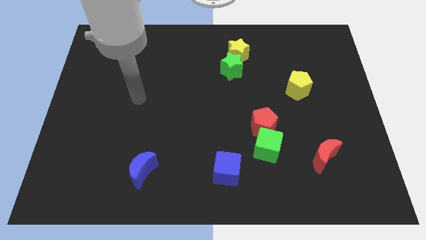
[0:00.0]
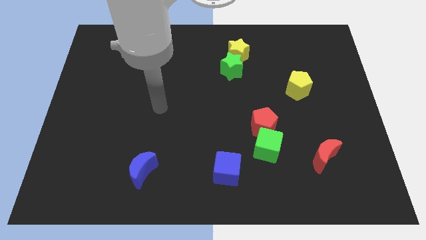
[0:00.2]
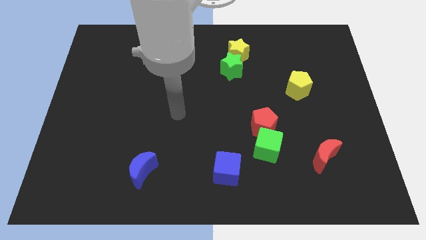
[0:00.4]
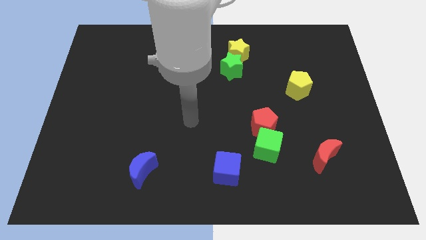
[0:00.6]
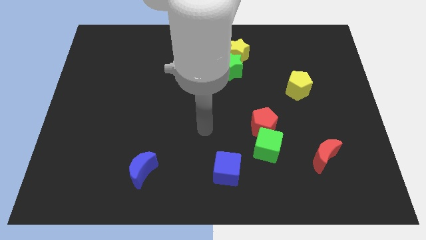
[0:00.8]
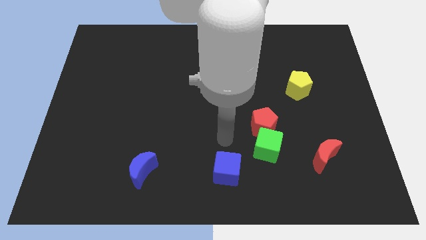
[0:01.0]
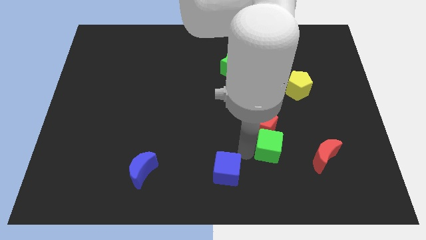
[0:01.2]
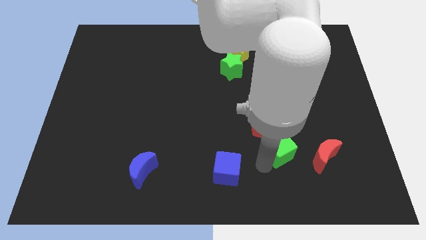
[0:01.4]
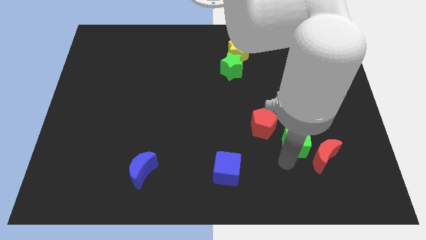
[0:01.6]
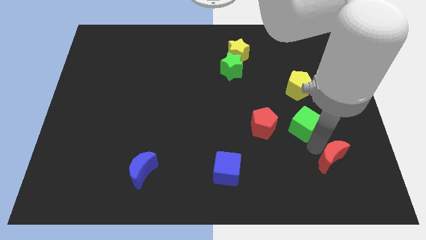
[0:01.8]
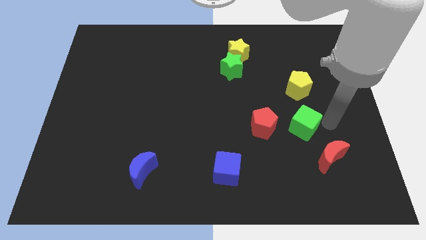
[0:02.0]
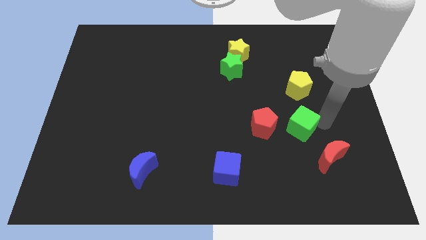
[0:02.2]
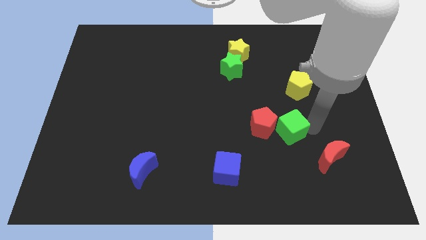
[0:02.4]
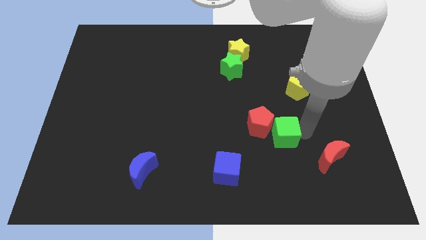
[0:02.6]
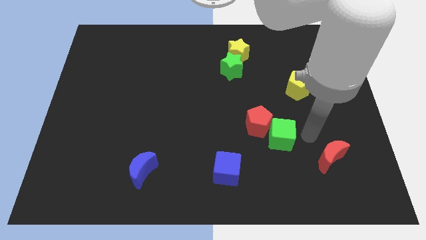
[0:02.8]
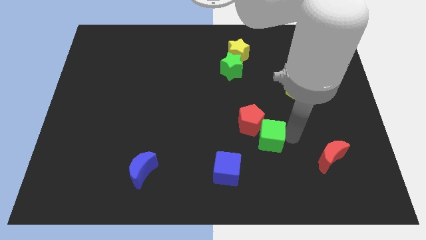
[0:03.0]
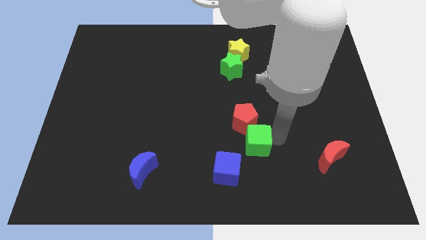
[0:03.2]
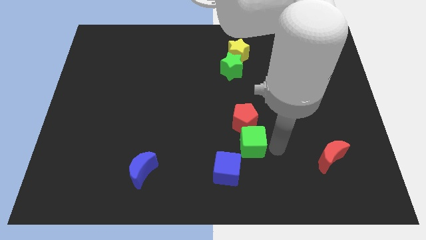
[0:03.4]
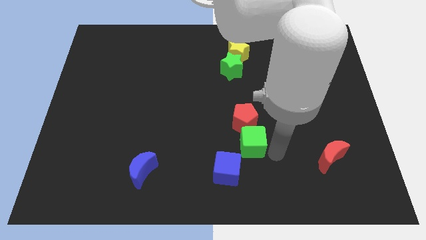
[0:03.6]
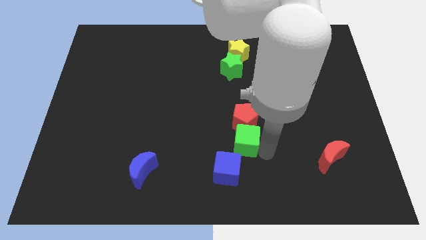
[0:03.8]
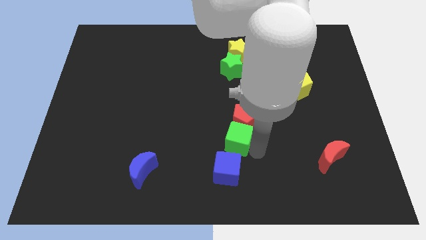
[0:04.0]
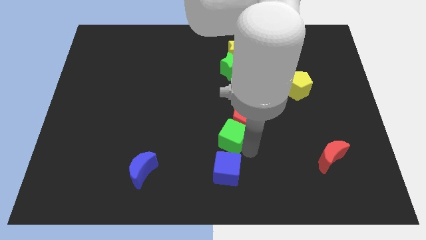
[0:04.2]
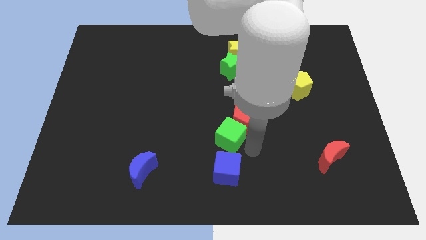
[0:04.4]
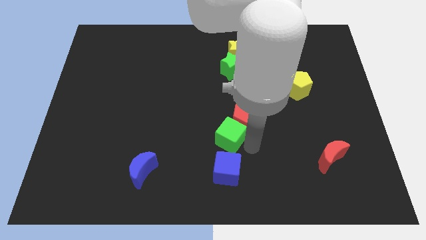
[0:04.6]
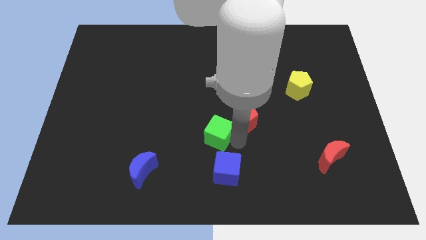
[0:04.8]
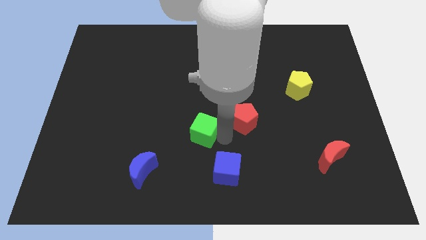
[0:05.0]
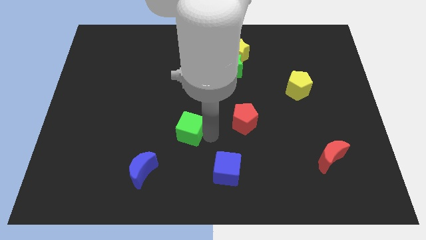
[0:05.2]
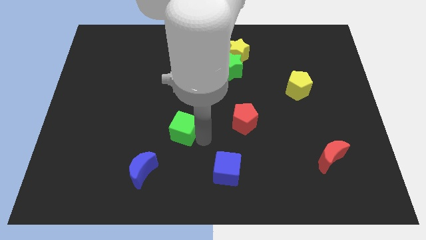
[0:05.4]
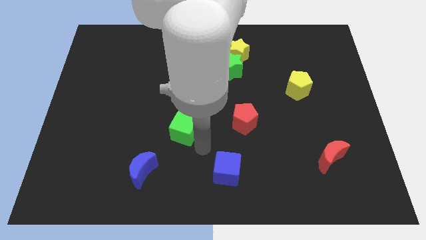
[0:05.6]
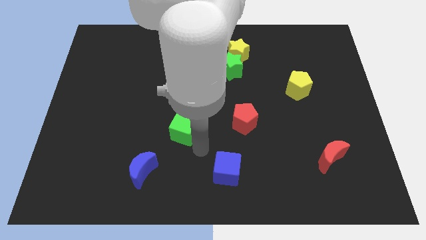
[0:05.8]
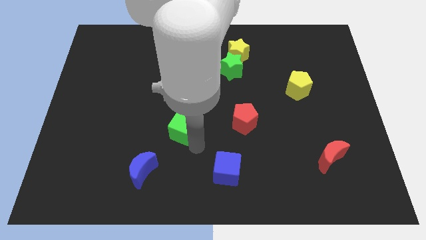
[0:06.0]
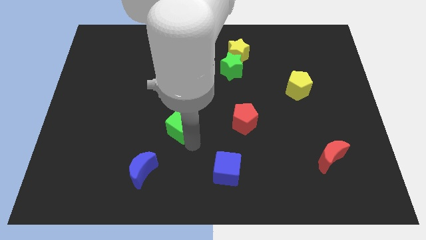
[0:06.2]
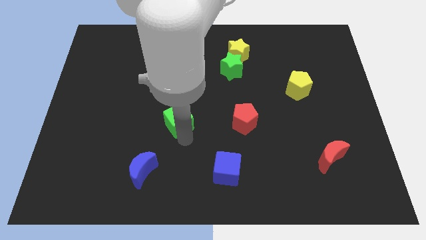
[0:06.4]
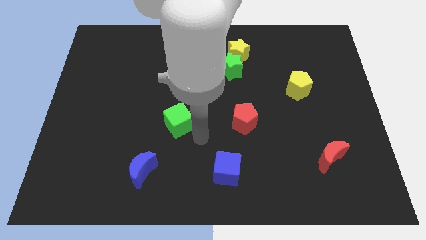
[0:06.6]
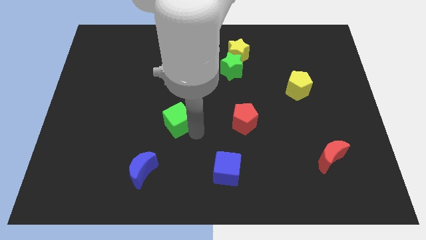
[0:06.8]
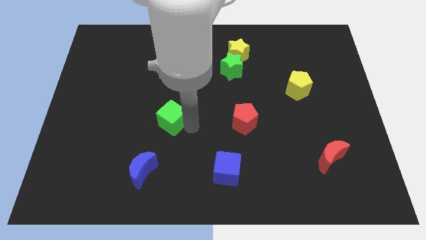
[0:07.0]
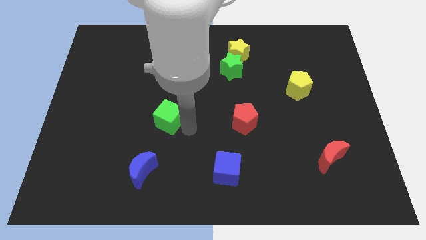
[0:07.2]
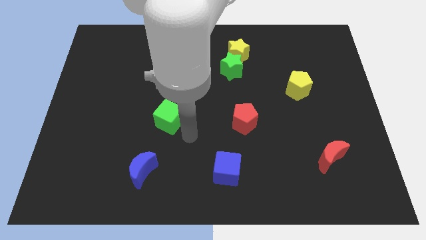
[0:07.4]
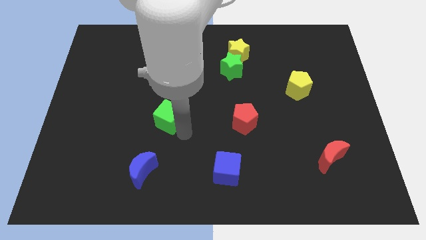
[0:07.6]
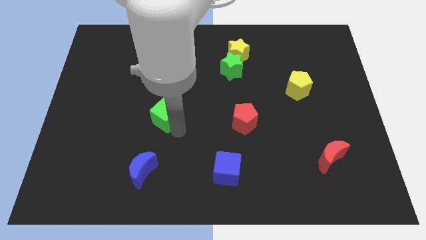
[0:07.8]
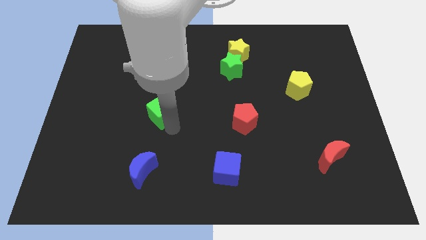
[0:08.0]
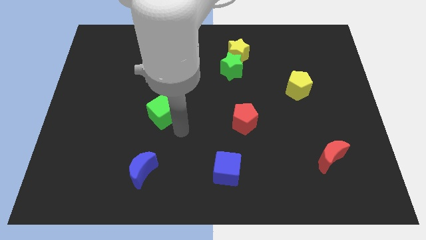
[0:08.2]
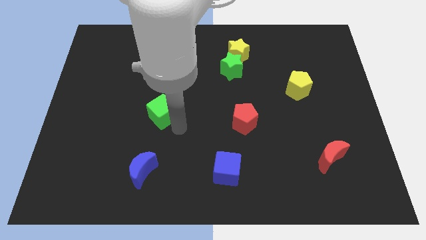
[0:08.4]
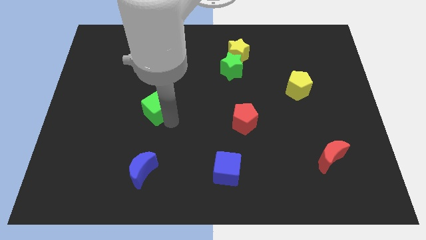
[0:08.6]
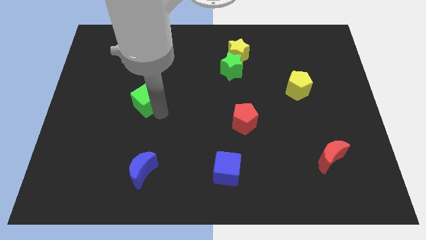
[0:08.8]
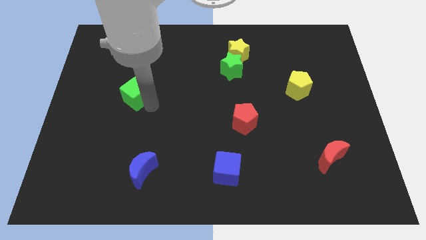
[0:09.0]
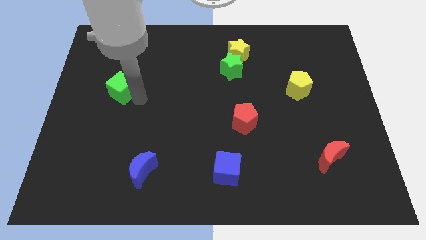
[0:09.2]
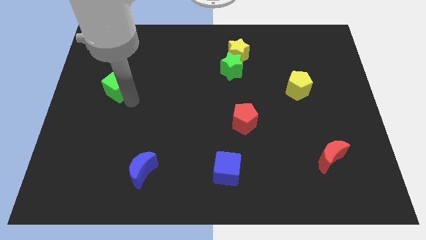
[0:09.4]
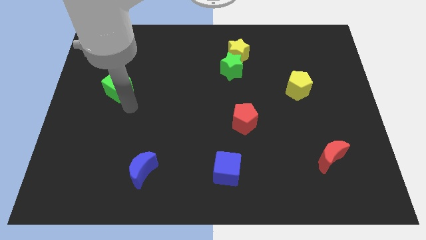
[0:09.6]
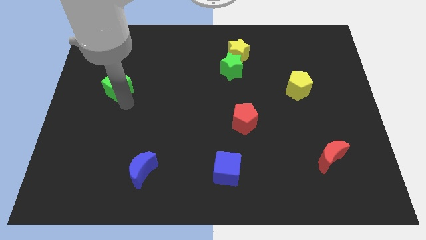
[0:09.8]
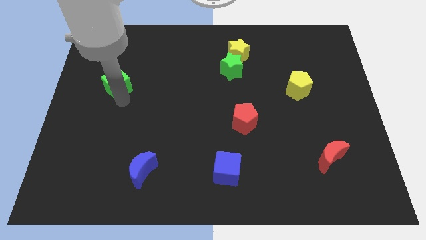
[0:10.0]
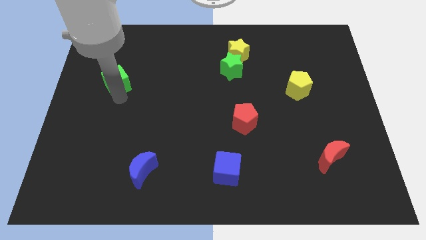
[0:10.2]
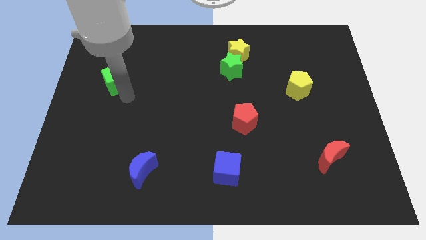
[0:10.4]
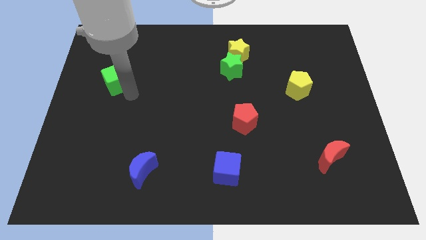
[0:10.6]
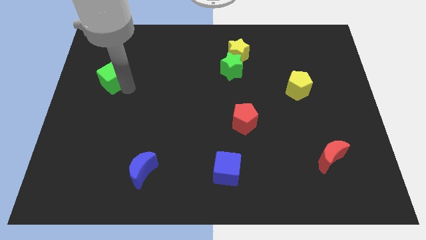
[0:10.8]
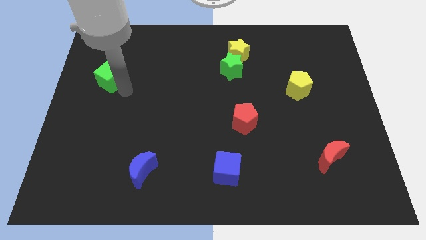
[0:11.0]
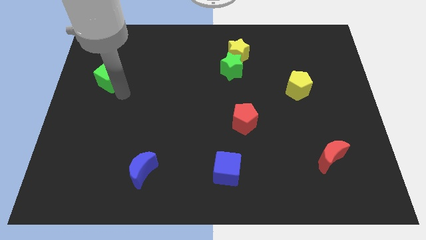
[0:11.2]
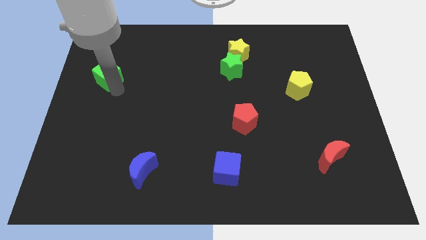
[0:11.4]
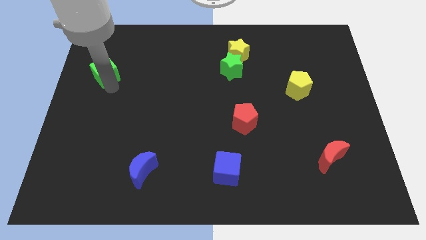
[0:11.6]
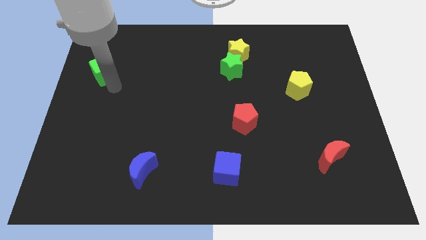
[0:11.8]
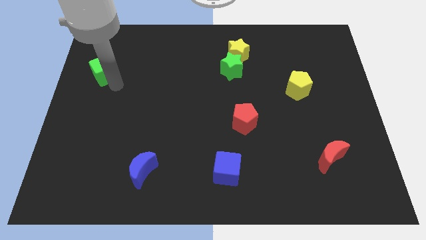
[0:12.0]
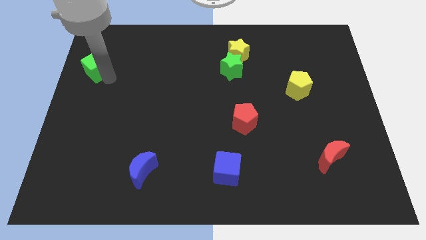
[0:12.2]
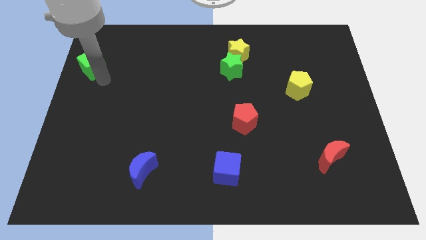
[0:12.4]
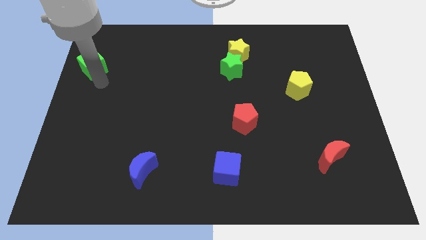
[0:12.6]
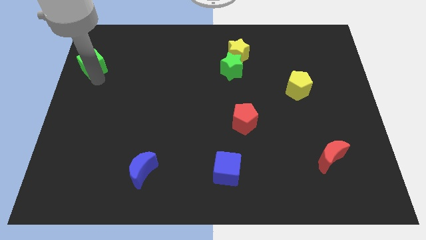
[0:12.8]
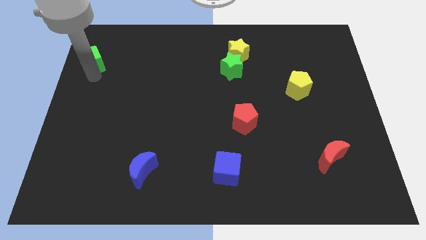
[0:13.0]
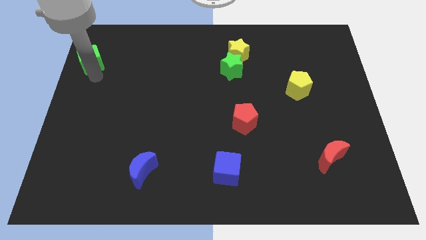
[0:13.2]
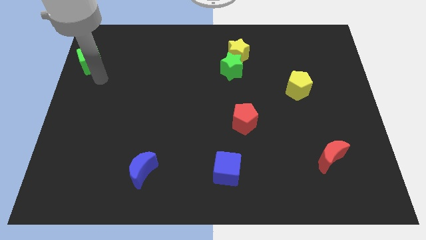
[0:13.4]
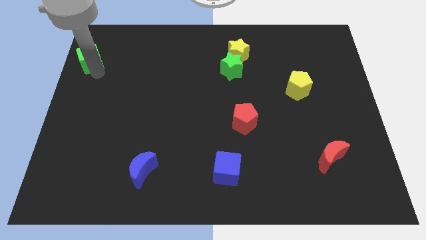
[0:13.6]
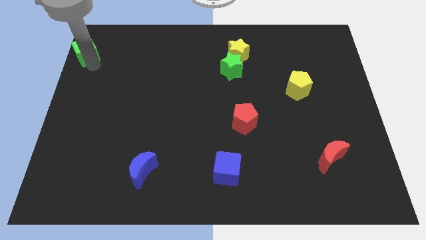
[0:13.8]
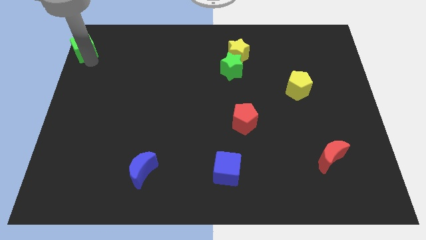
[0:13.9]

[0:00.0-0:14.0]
slide the green cube to the top left corner
